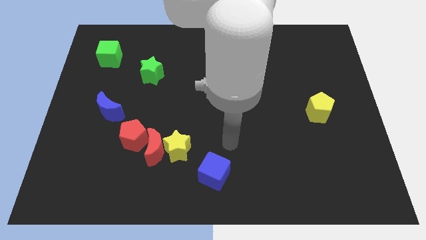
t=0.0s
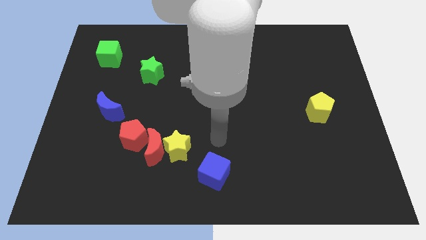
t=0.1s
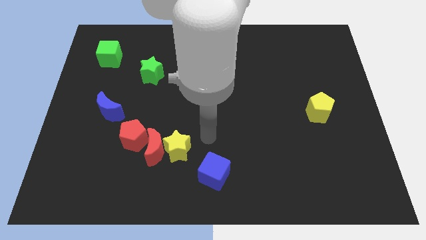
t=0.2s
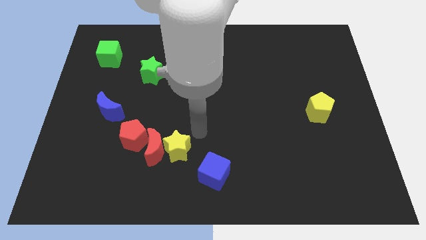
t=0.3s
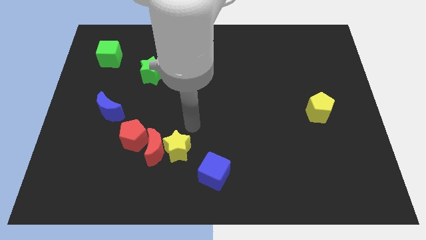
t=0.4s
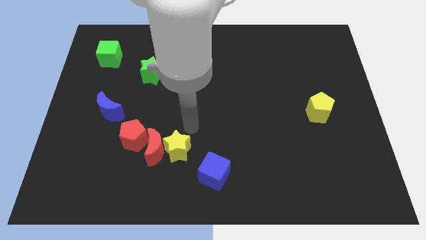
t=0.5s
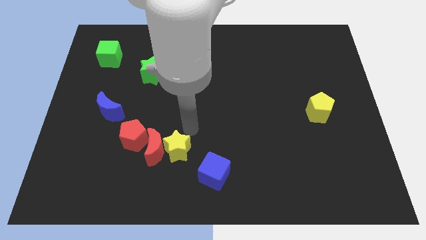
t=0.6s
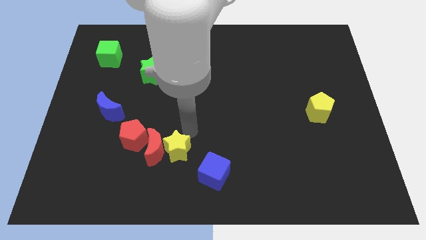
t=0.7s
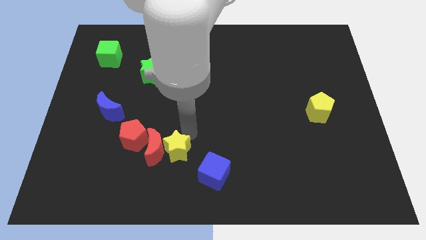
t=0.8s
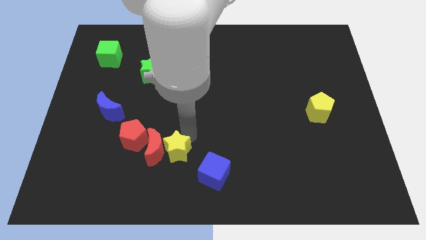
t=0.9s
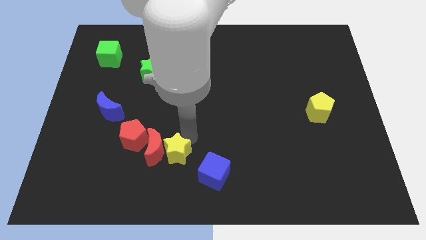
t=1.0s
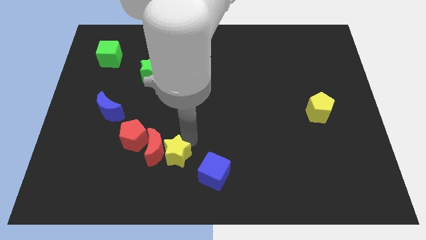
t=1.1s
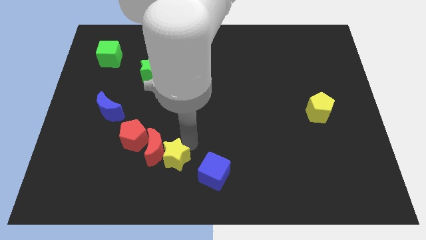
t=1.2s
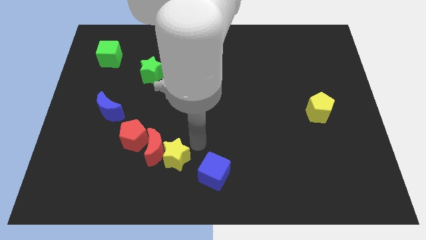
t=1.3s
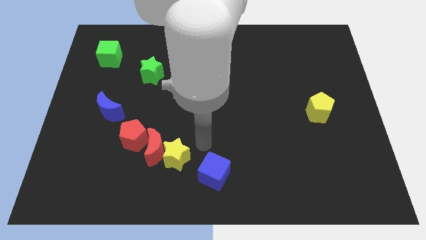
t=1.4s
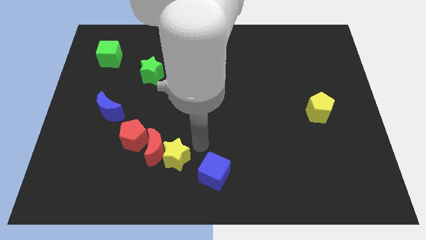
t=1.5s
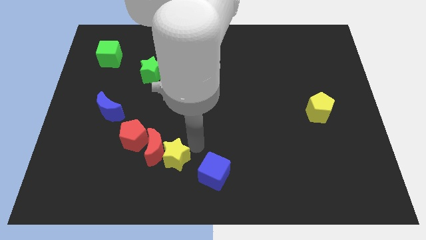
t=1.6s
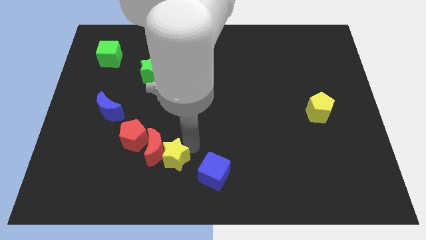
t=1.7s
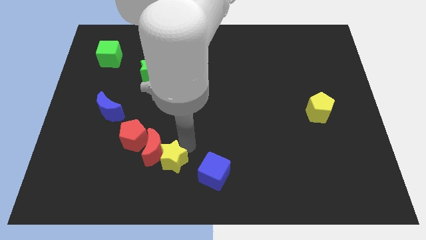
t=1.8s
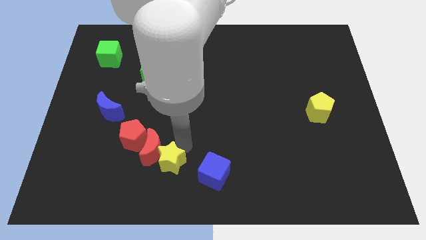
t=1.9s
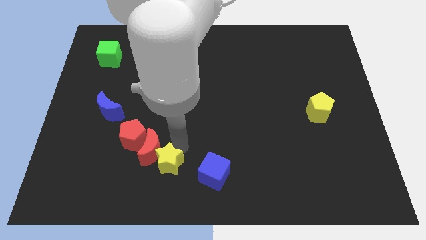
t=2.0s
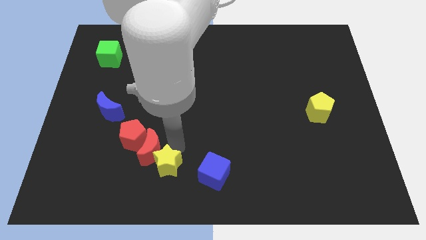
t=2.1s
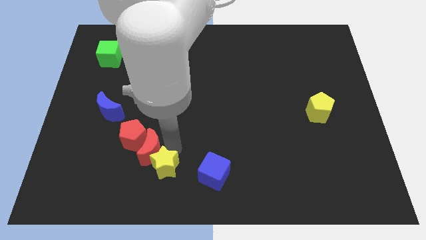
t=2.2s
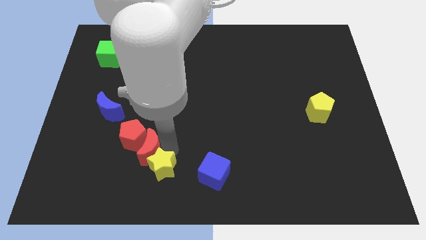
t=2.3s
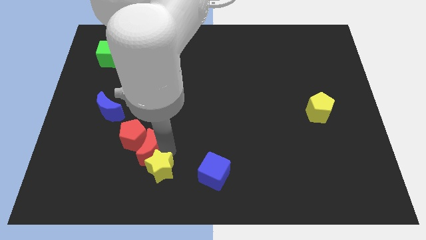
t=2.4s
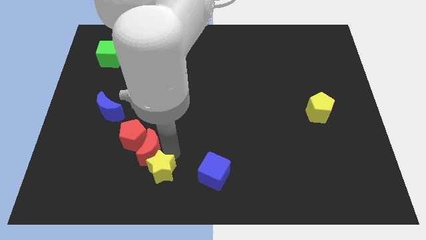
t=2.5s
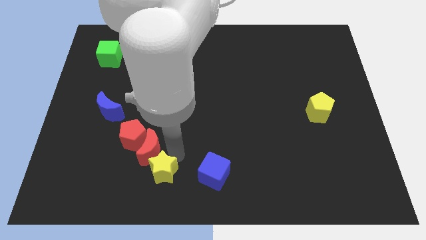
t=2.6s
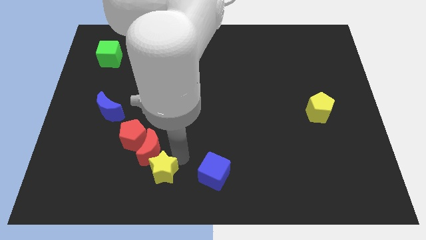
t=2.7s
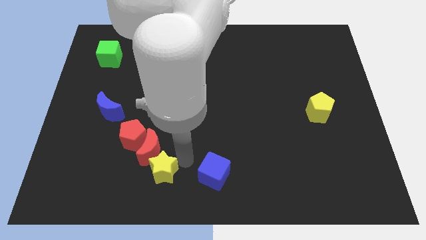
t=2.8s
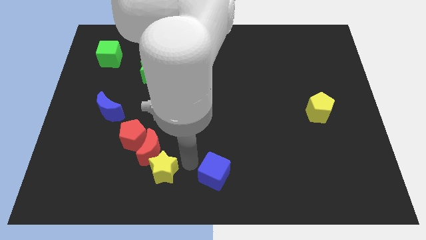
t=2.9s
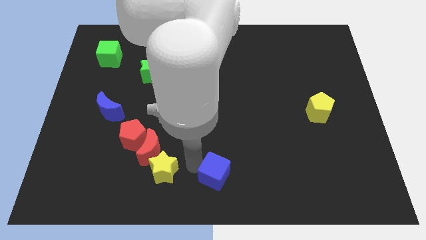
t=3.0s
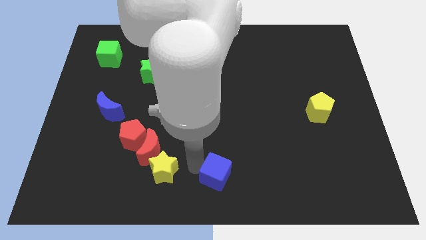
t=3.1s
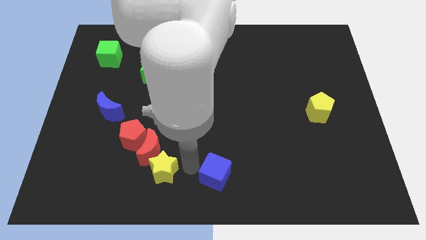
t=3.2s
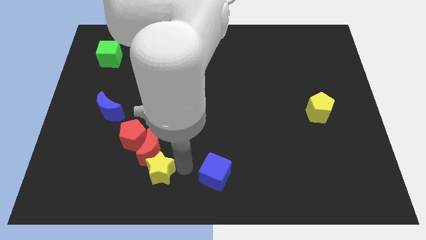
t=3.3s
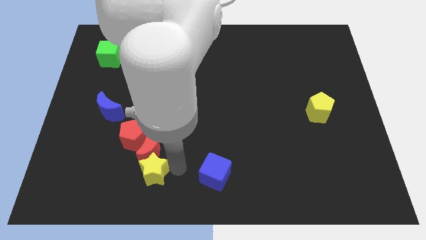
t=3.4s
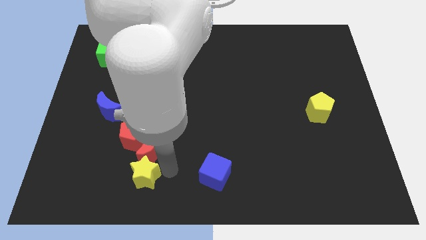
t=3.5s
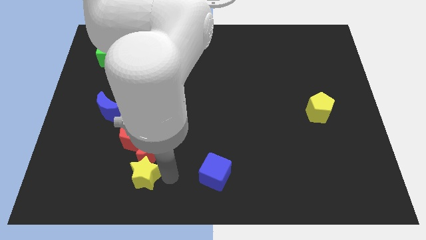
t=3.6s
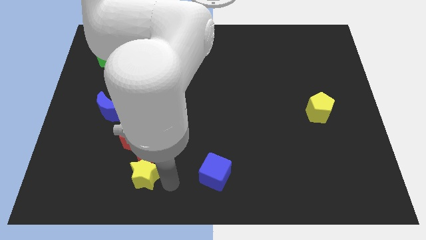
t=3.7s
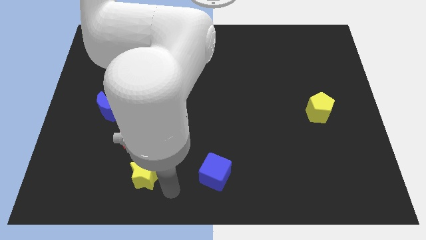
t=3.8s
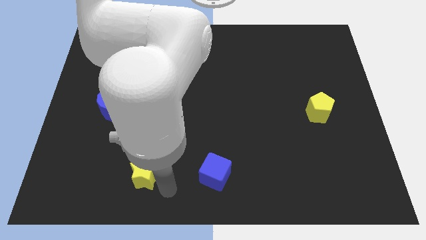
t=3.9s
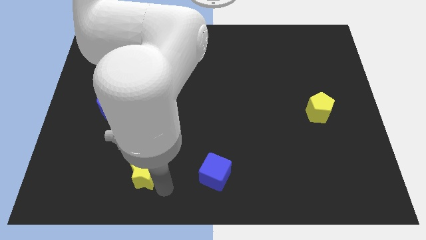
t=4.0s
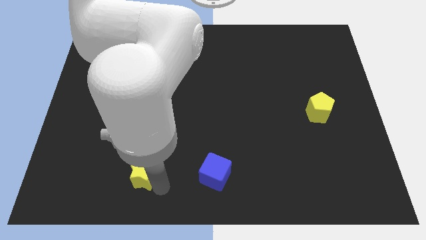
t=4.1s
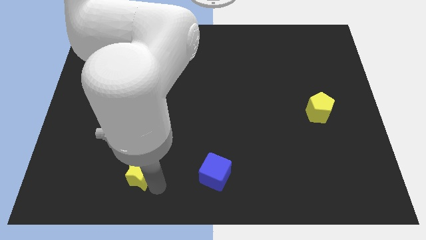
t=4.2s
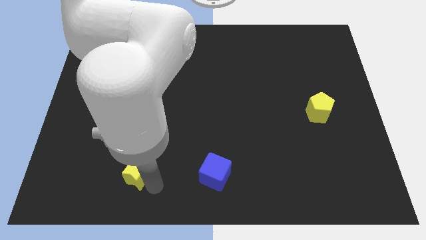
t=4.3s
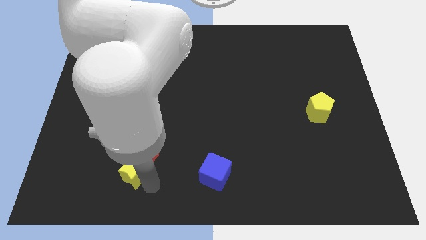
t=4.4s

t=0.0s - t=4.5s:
slide the yellow star to the left slightly

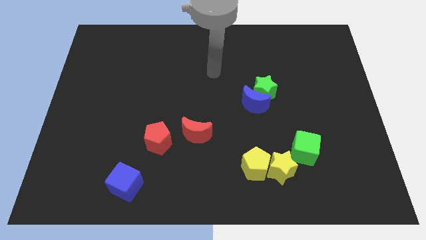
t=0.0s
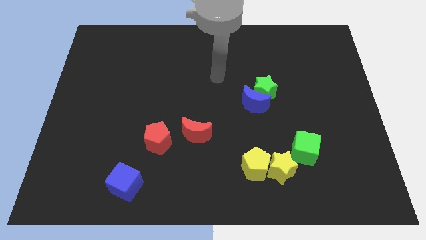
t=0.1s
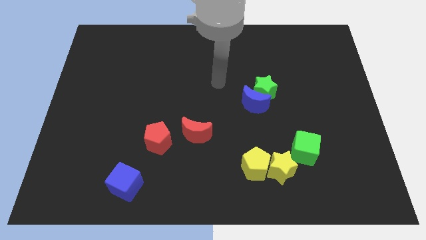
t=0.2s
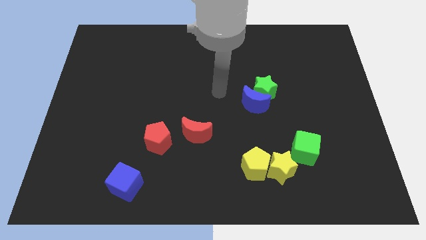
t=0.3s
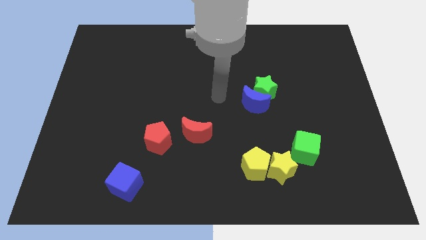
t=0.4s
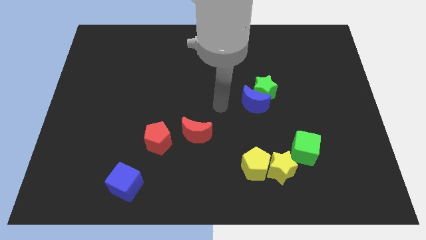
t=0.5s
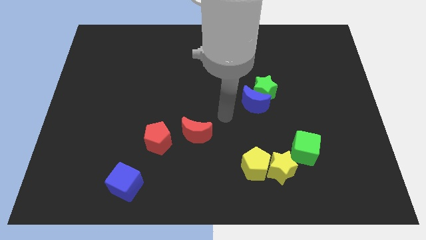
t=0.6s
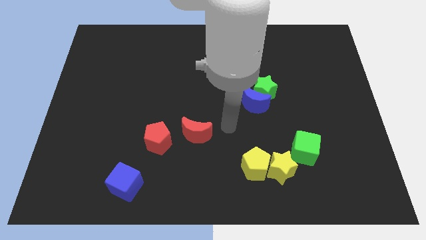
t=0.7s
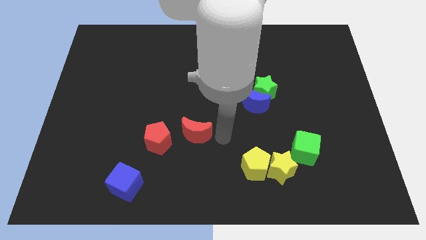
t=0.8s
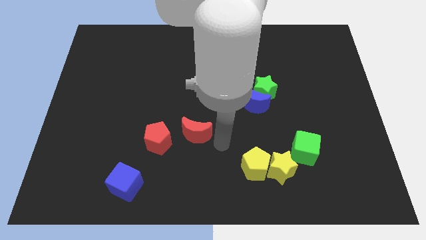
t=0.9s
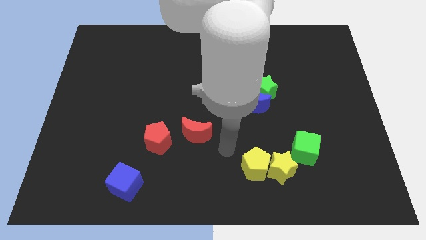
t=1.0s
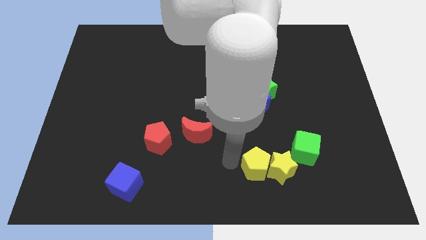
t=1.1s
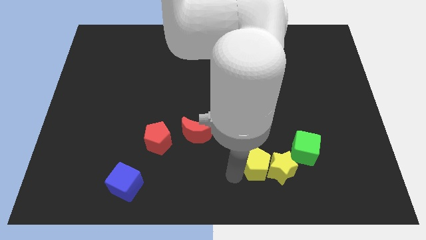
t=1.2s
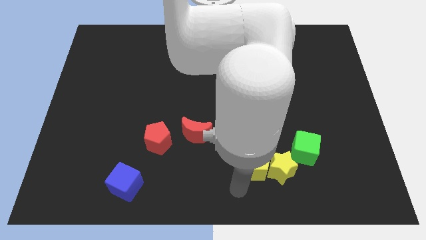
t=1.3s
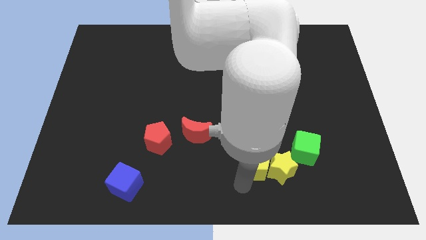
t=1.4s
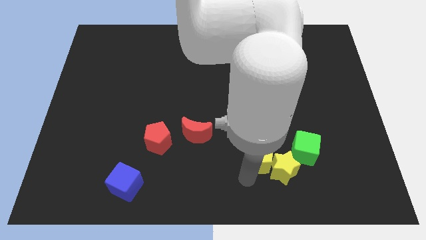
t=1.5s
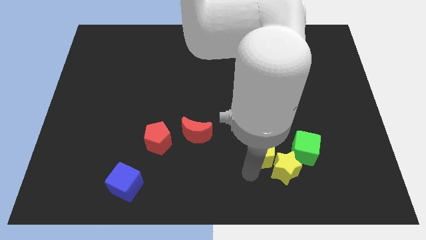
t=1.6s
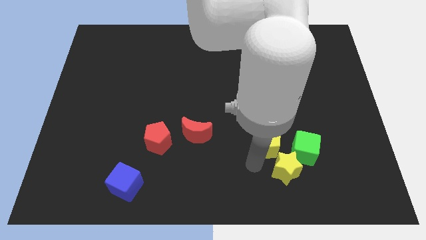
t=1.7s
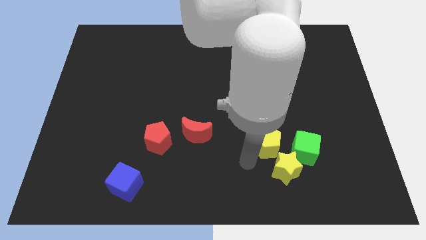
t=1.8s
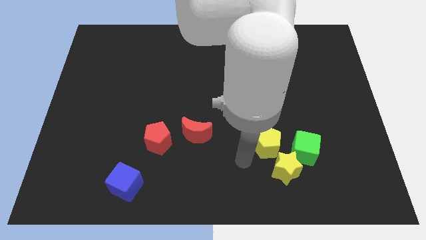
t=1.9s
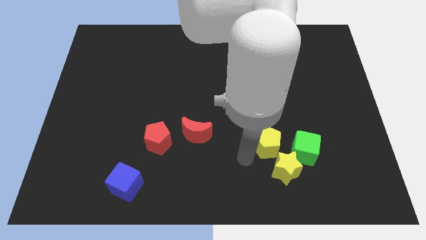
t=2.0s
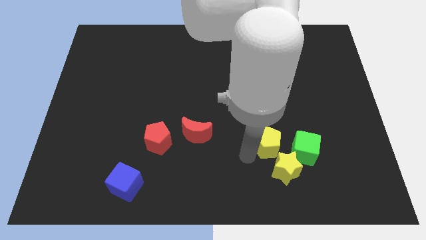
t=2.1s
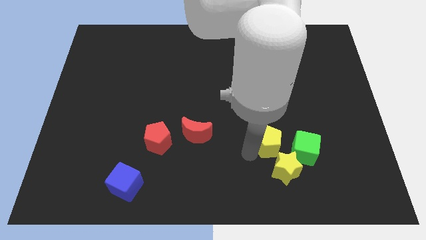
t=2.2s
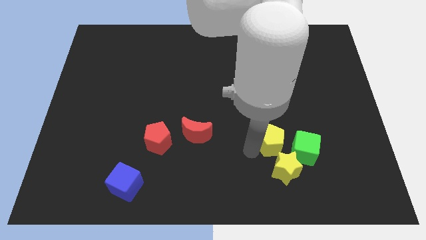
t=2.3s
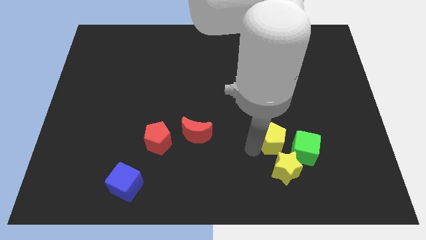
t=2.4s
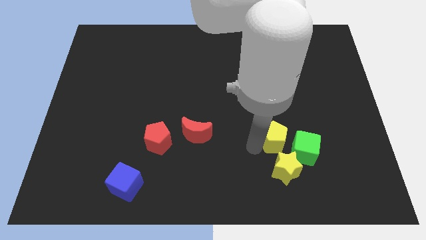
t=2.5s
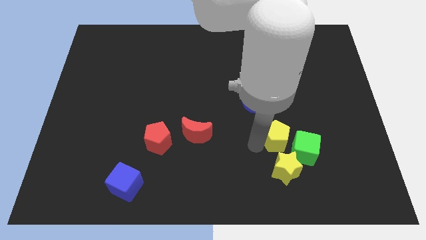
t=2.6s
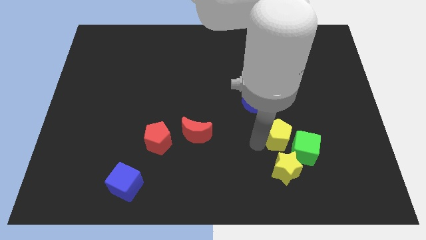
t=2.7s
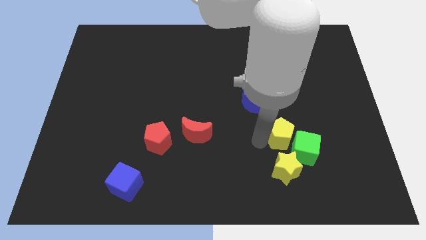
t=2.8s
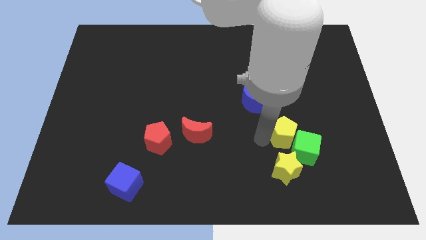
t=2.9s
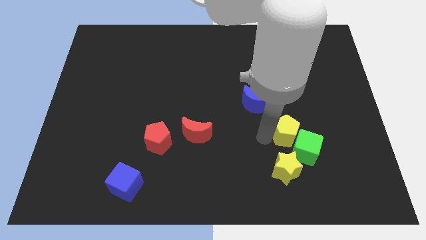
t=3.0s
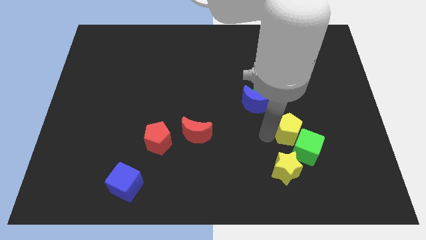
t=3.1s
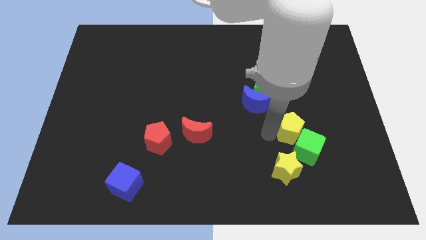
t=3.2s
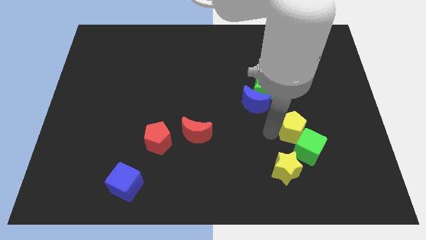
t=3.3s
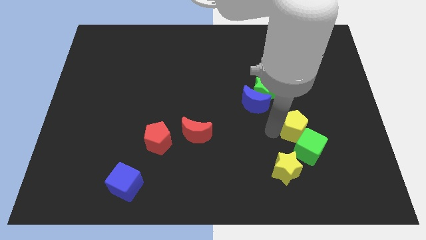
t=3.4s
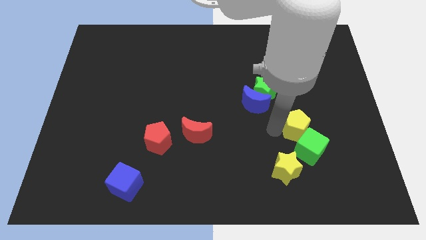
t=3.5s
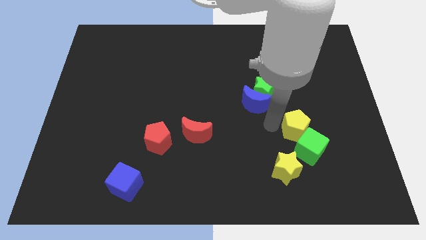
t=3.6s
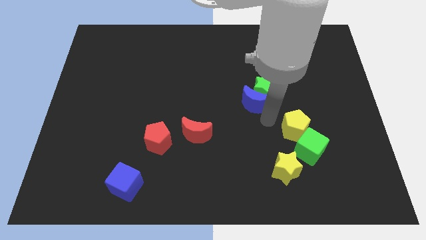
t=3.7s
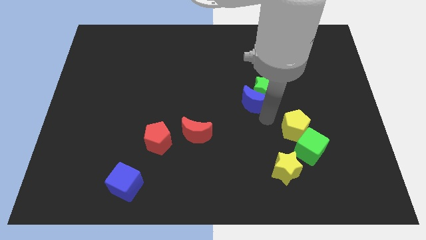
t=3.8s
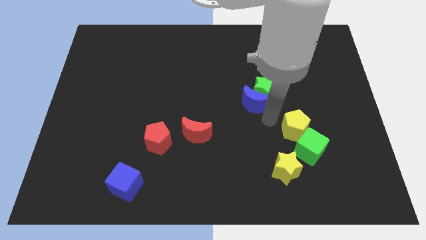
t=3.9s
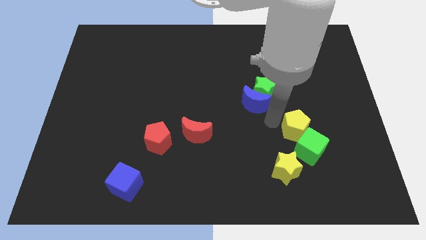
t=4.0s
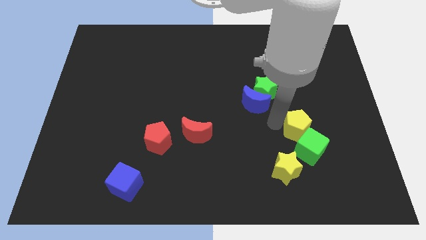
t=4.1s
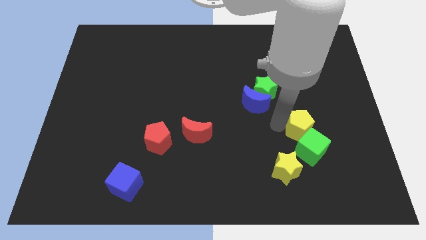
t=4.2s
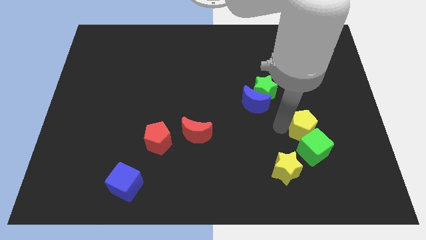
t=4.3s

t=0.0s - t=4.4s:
slightly move the yellow pentagon right
